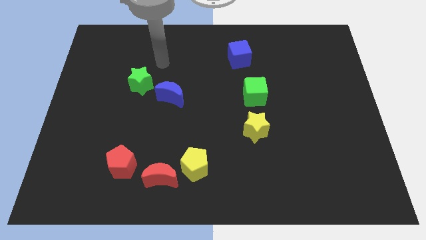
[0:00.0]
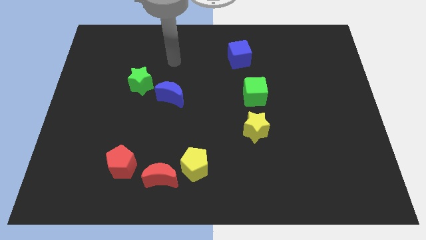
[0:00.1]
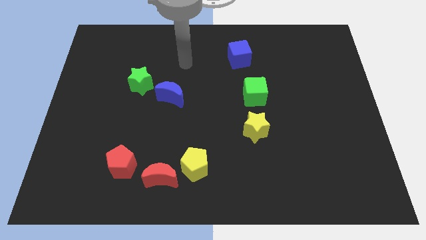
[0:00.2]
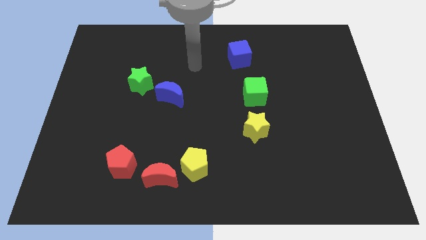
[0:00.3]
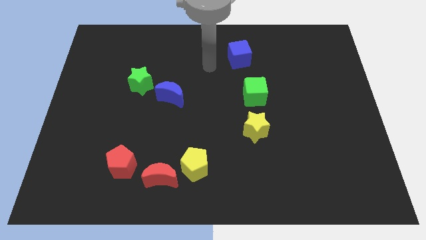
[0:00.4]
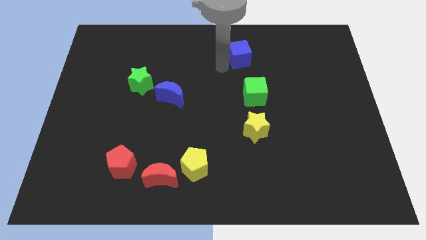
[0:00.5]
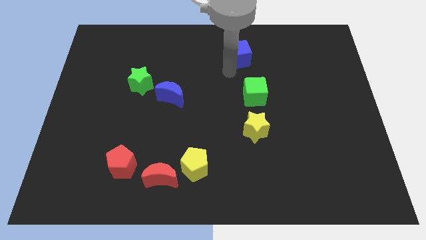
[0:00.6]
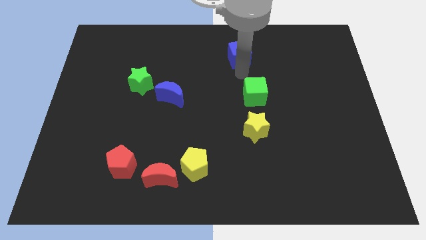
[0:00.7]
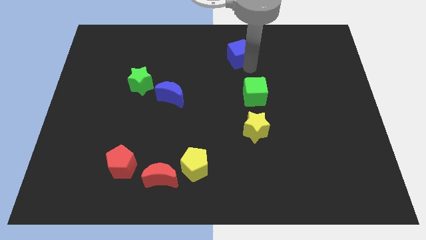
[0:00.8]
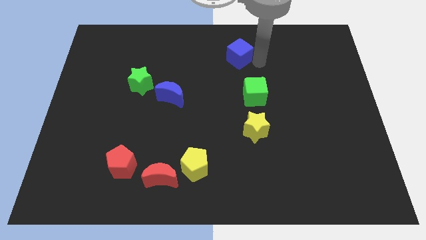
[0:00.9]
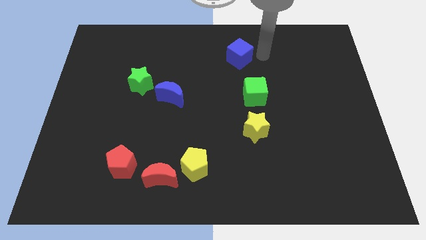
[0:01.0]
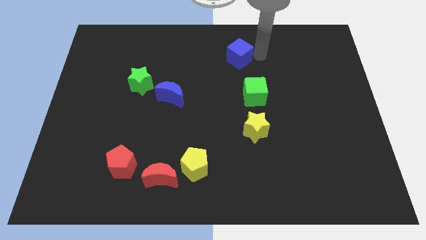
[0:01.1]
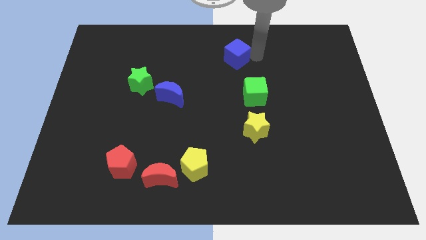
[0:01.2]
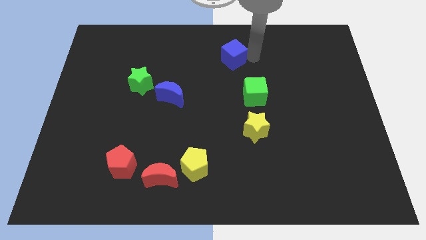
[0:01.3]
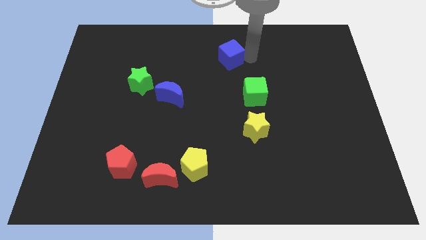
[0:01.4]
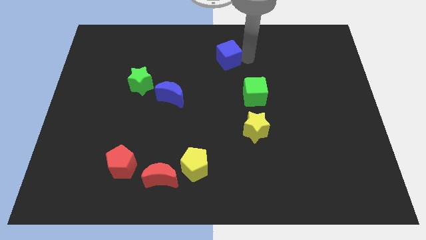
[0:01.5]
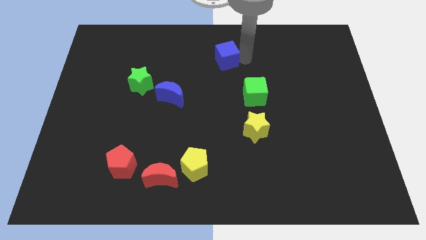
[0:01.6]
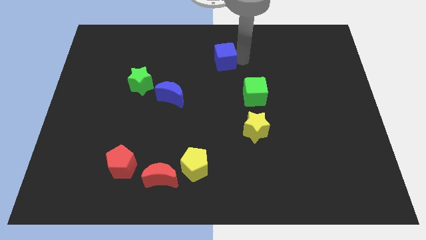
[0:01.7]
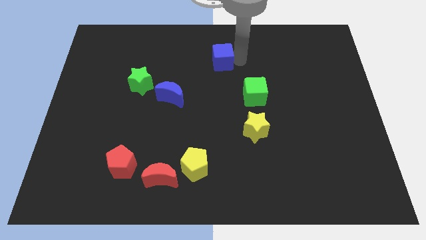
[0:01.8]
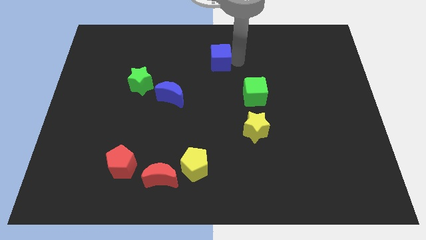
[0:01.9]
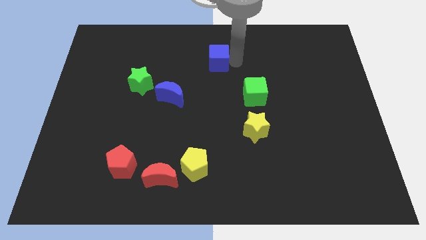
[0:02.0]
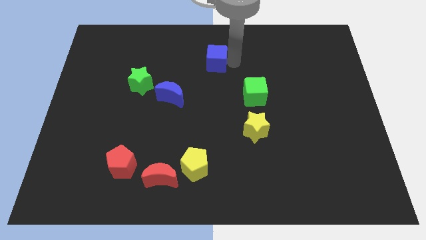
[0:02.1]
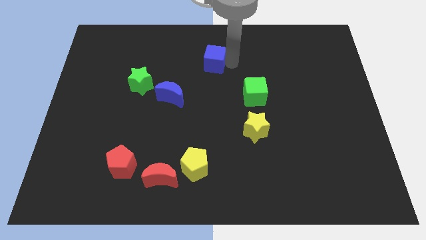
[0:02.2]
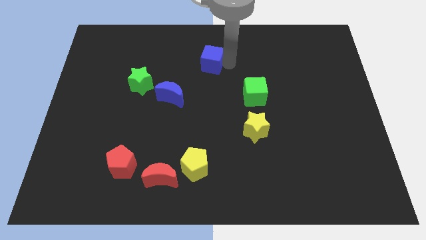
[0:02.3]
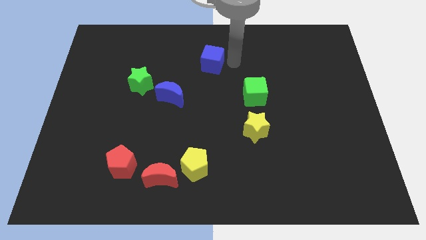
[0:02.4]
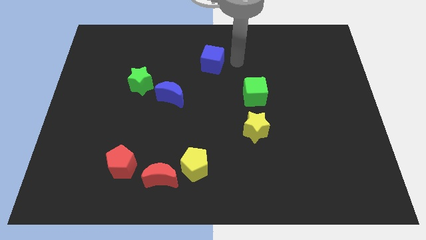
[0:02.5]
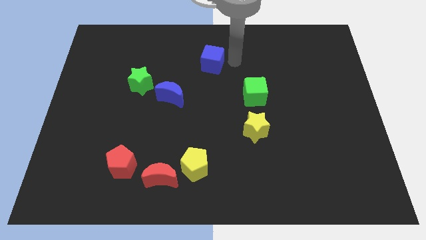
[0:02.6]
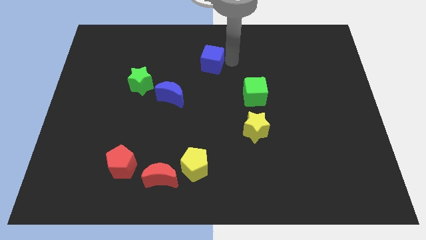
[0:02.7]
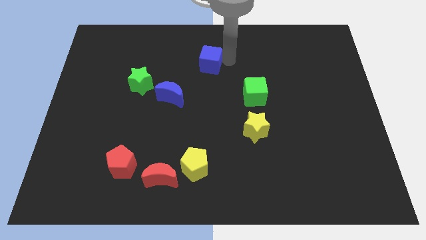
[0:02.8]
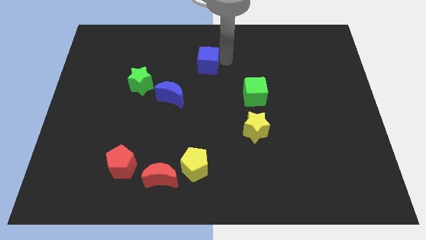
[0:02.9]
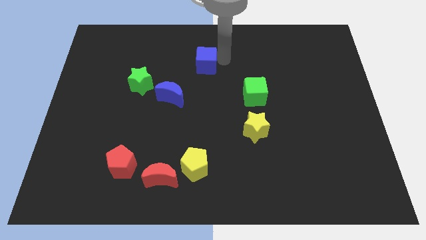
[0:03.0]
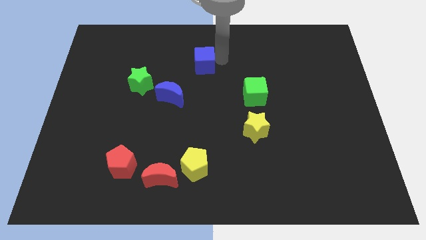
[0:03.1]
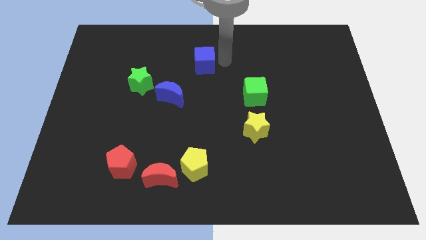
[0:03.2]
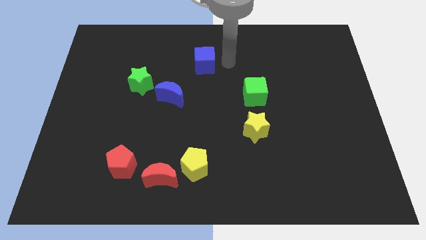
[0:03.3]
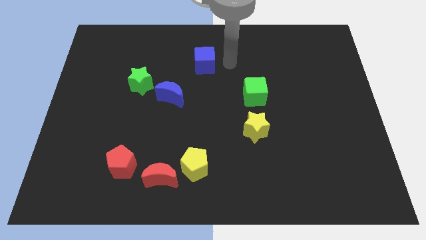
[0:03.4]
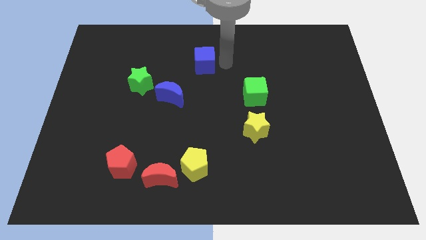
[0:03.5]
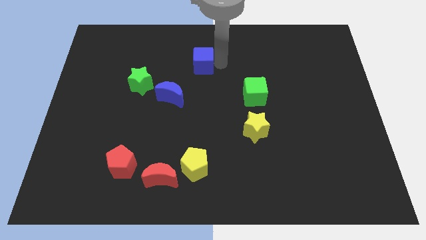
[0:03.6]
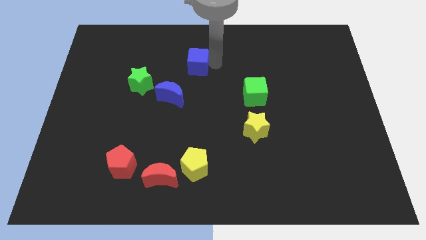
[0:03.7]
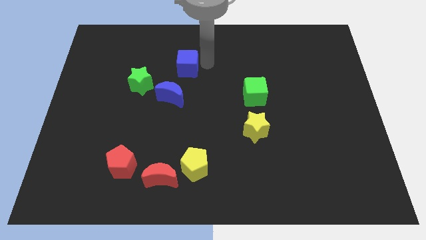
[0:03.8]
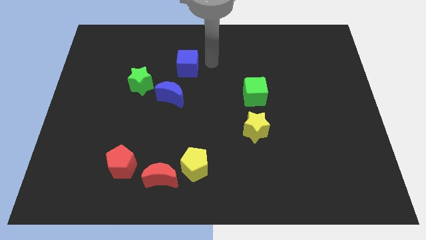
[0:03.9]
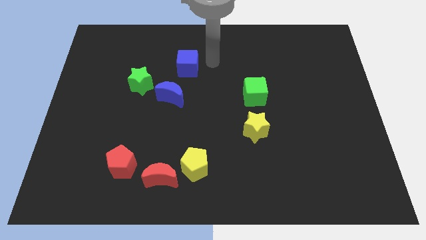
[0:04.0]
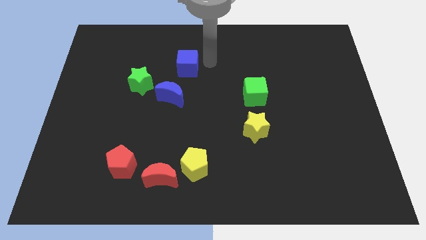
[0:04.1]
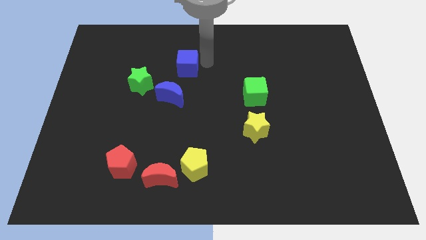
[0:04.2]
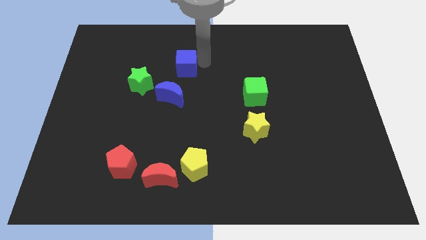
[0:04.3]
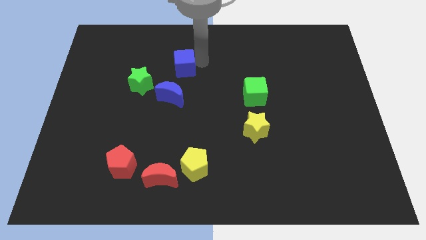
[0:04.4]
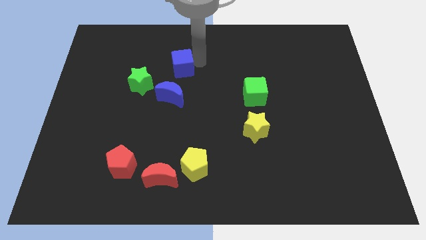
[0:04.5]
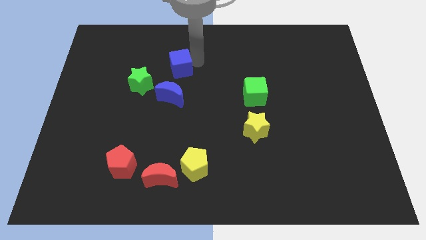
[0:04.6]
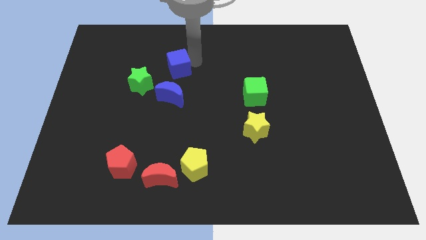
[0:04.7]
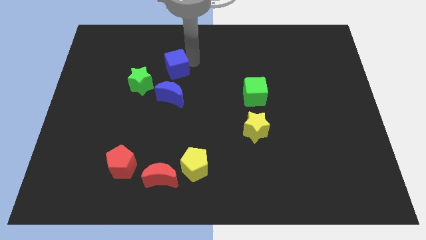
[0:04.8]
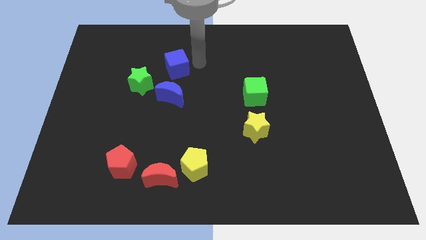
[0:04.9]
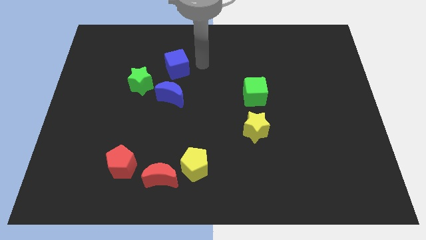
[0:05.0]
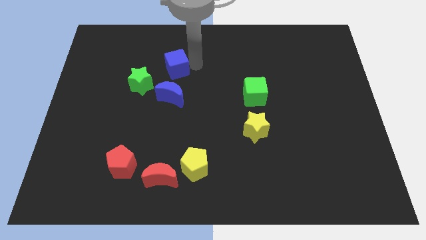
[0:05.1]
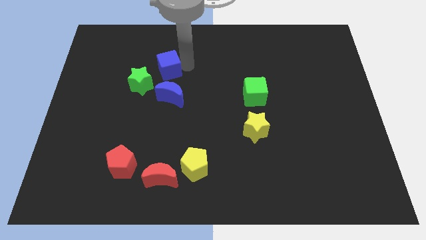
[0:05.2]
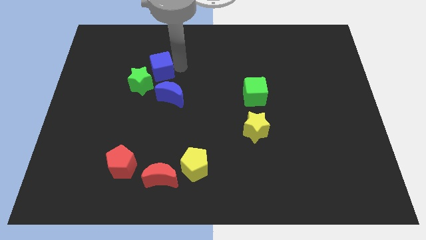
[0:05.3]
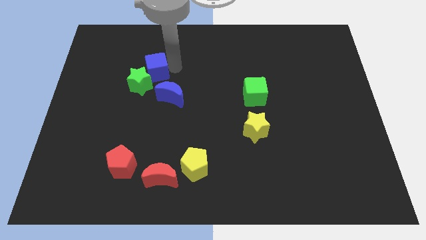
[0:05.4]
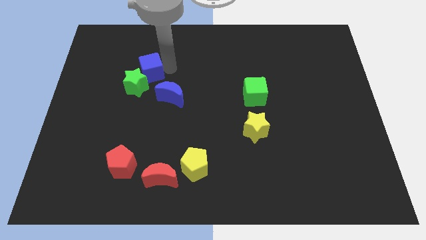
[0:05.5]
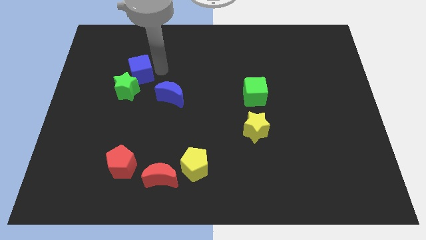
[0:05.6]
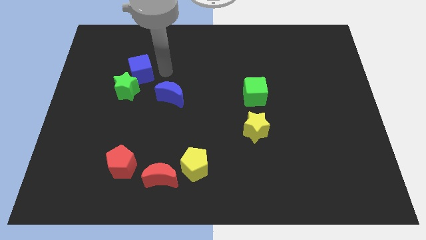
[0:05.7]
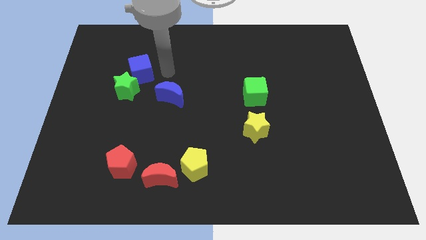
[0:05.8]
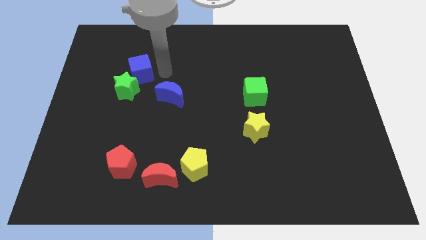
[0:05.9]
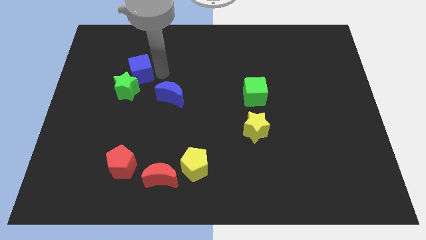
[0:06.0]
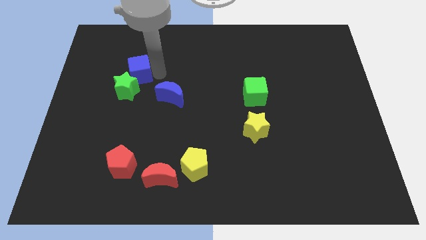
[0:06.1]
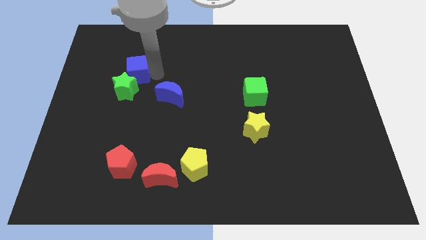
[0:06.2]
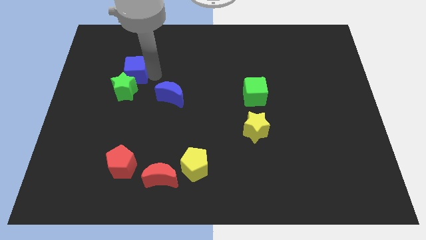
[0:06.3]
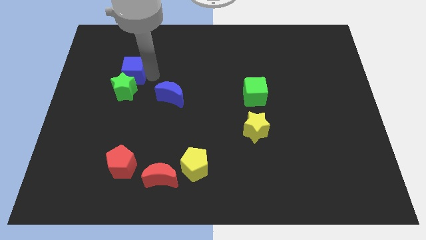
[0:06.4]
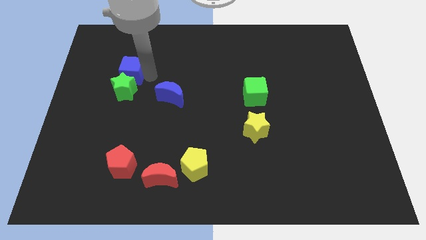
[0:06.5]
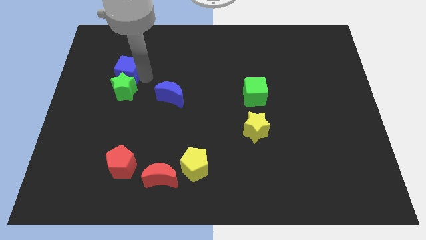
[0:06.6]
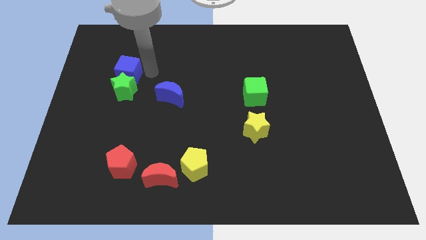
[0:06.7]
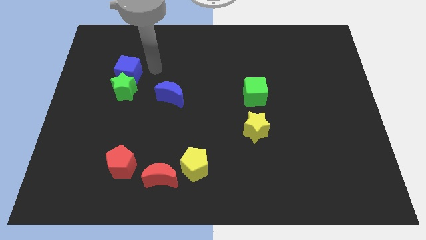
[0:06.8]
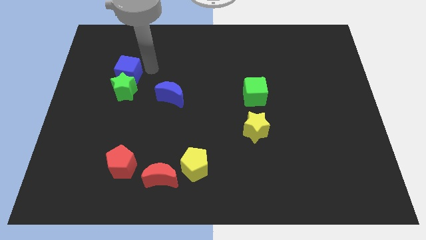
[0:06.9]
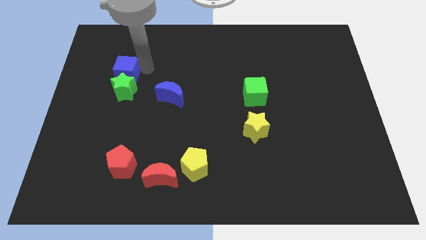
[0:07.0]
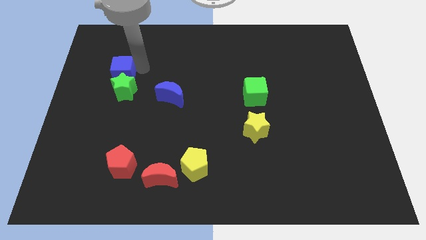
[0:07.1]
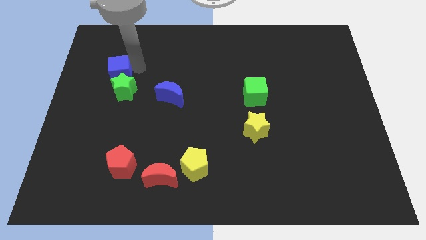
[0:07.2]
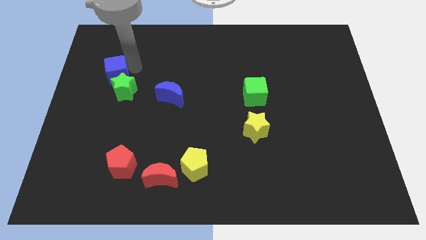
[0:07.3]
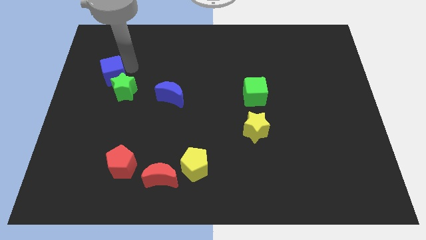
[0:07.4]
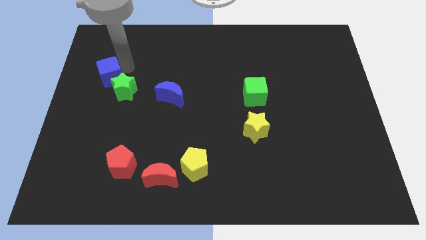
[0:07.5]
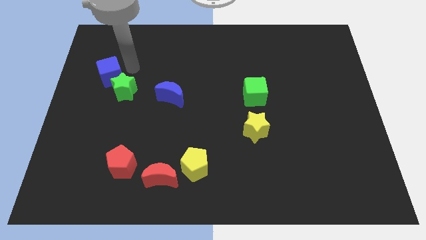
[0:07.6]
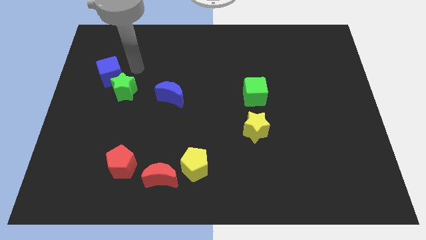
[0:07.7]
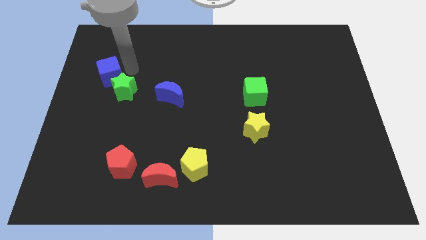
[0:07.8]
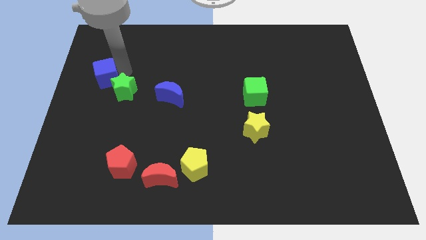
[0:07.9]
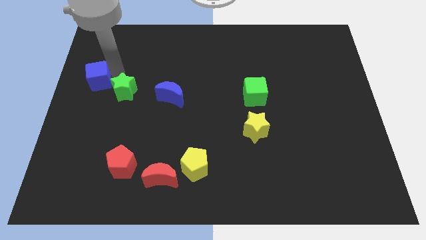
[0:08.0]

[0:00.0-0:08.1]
slide the blue cube to the center left

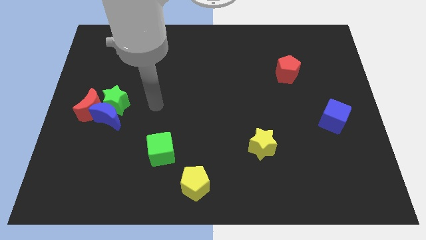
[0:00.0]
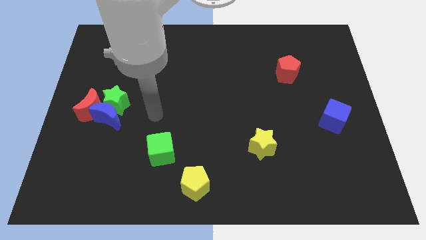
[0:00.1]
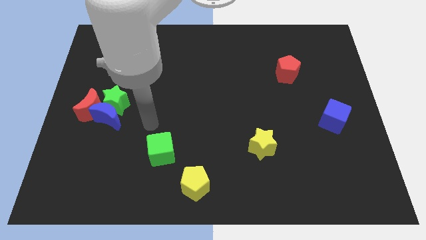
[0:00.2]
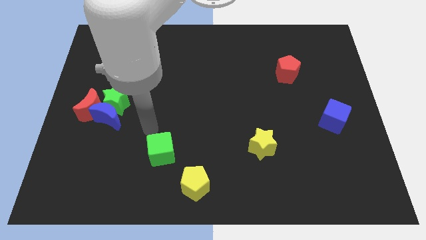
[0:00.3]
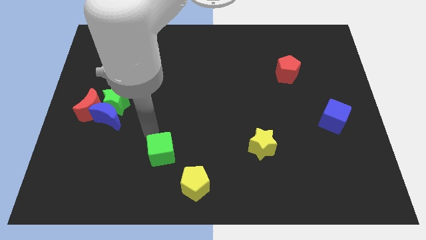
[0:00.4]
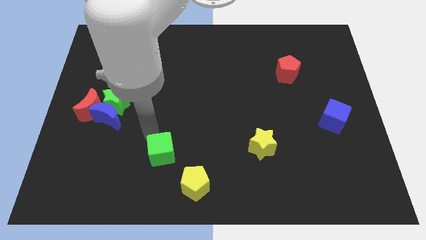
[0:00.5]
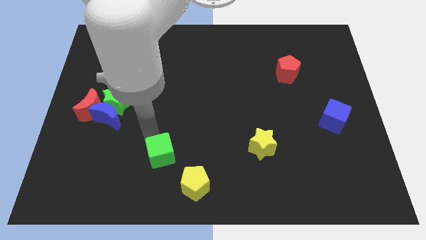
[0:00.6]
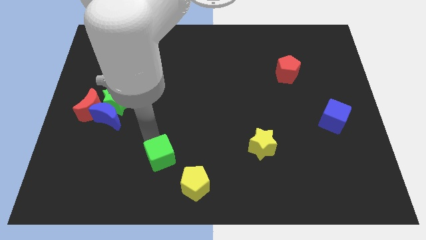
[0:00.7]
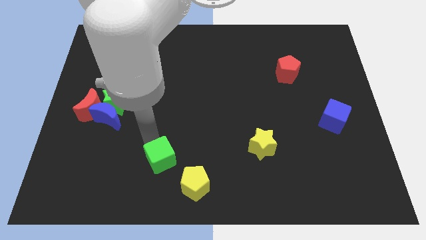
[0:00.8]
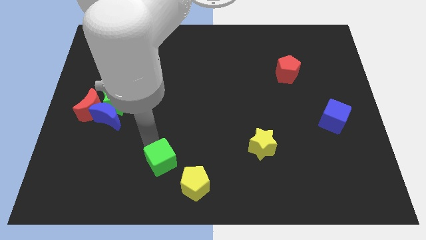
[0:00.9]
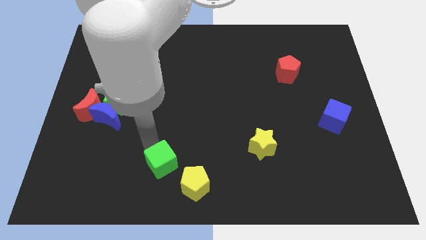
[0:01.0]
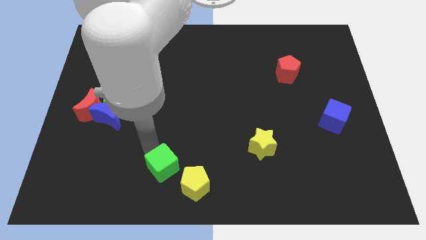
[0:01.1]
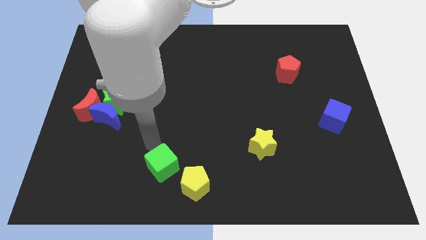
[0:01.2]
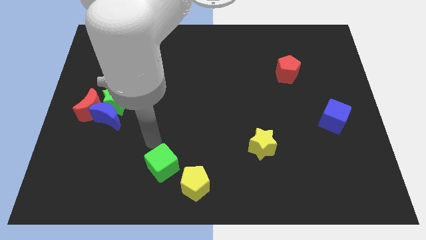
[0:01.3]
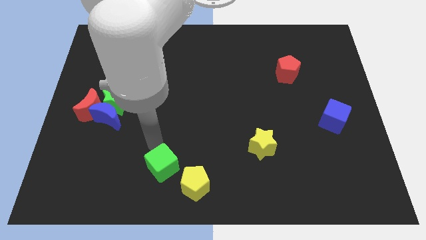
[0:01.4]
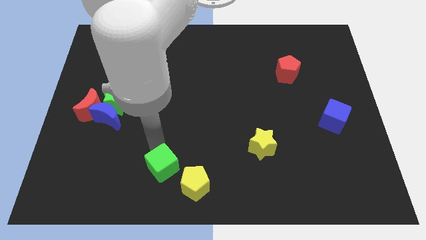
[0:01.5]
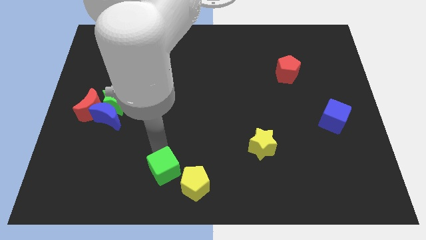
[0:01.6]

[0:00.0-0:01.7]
put the green cube to the bottom side
